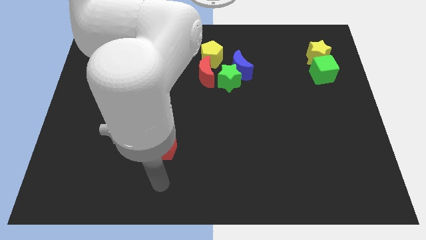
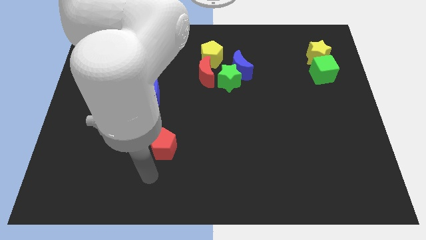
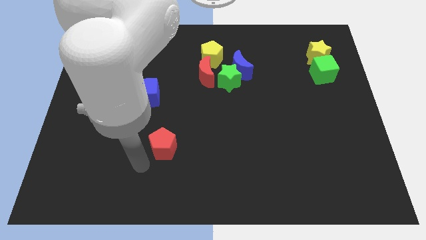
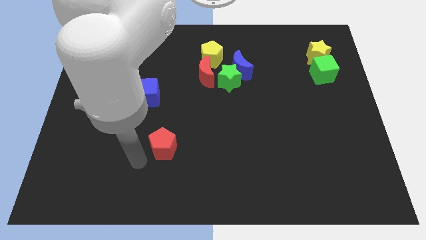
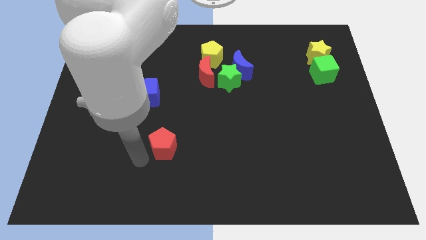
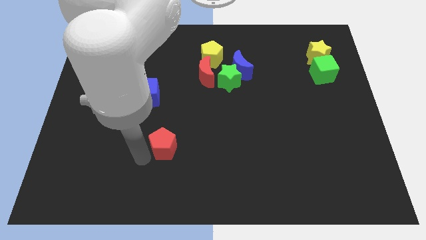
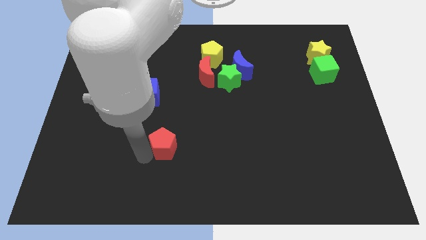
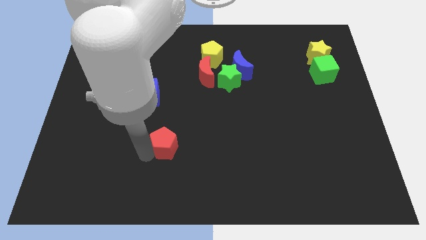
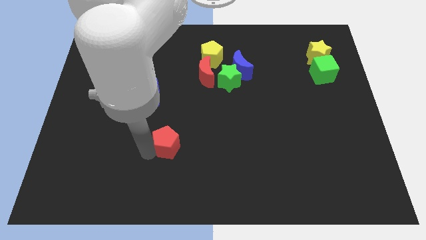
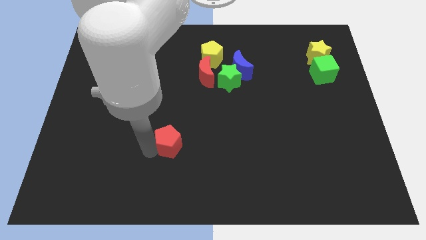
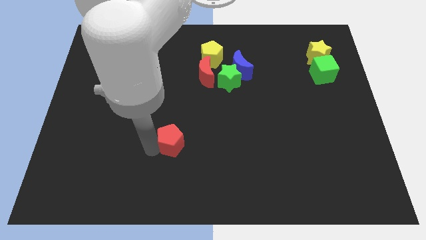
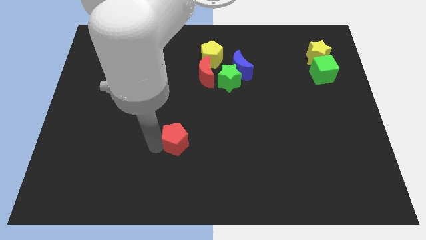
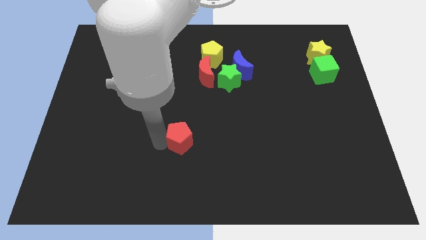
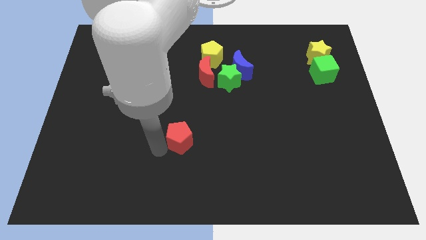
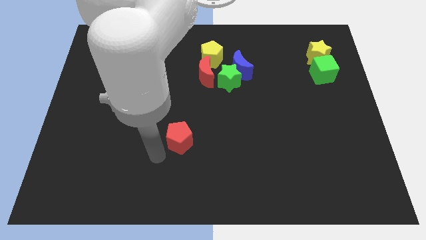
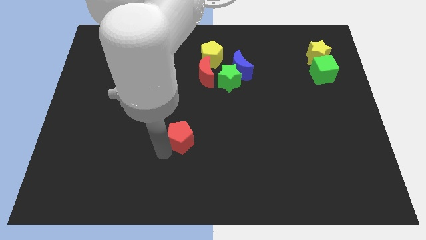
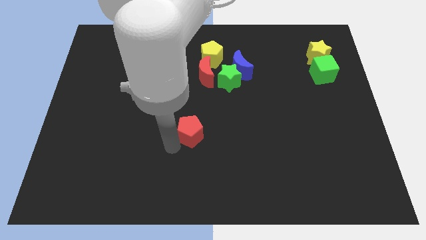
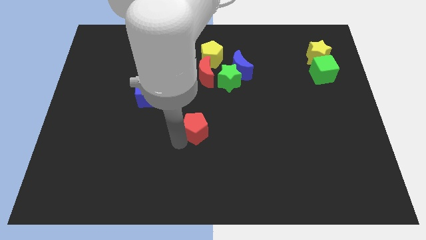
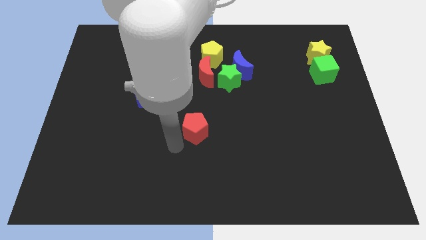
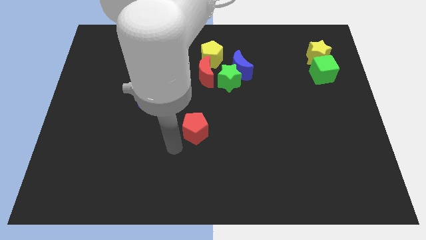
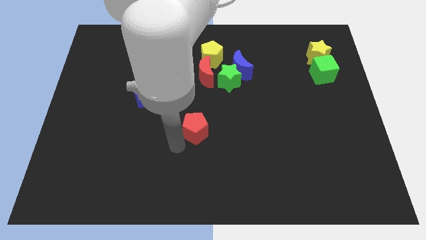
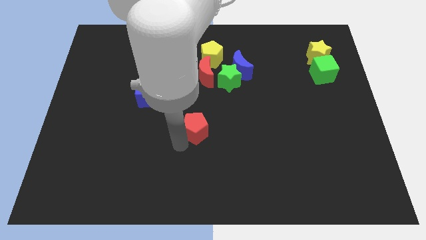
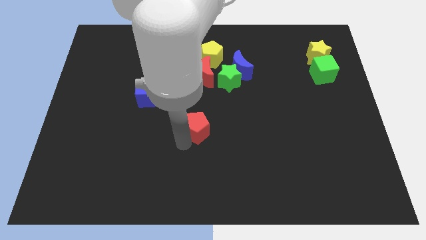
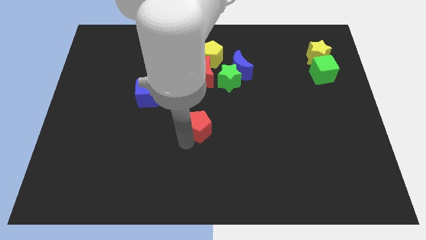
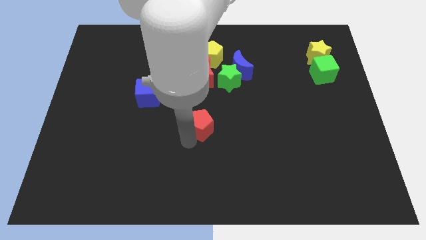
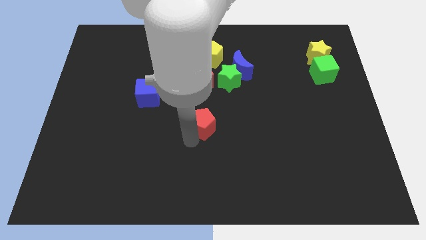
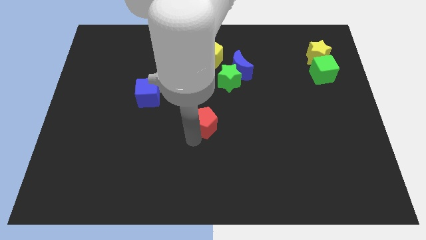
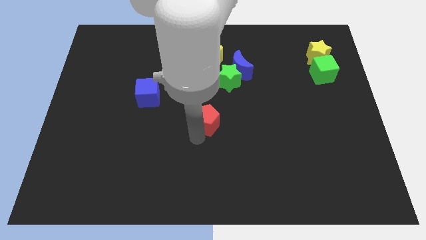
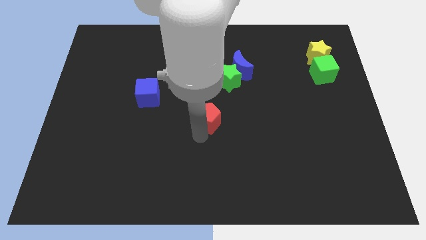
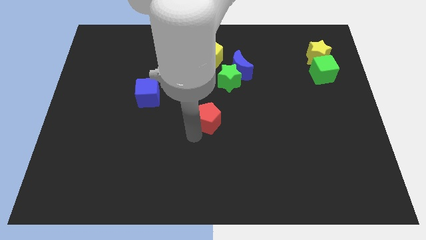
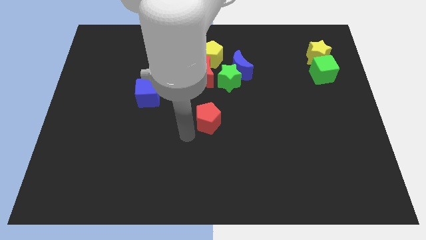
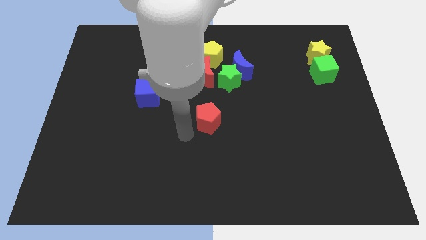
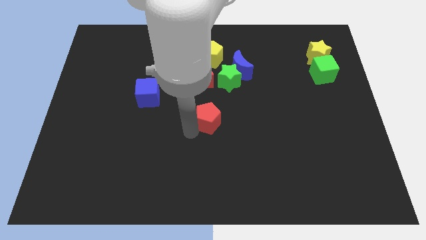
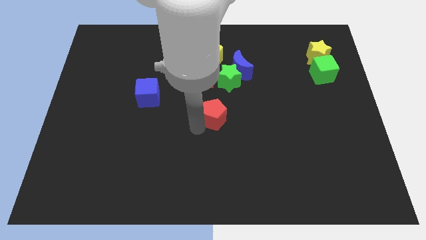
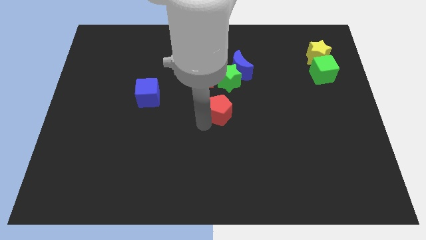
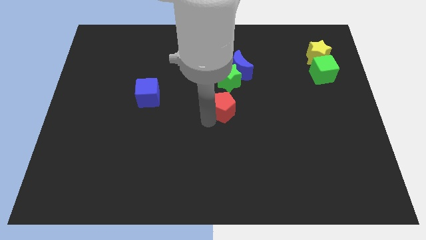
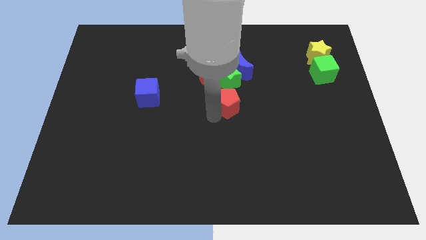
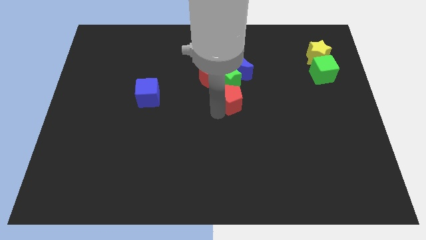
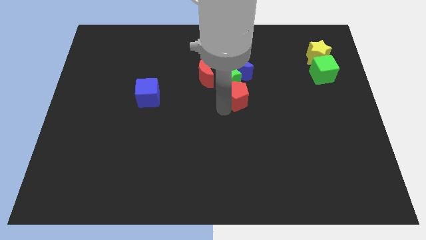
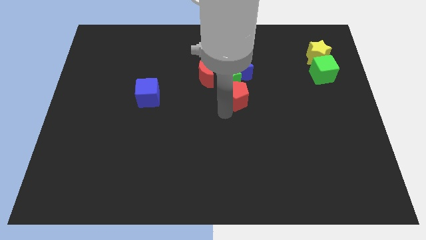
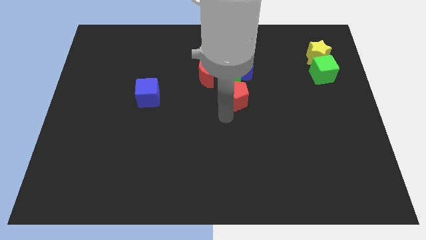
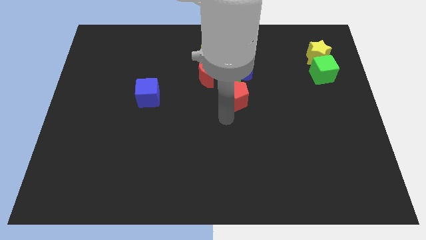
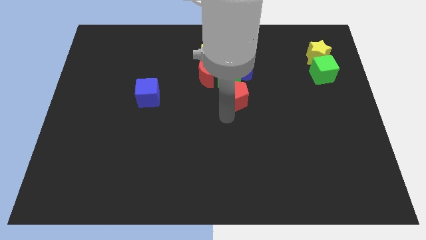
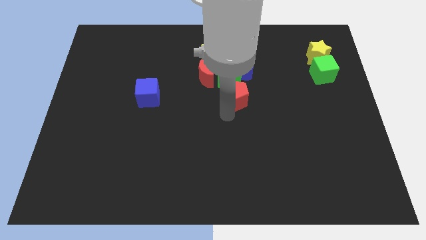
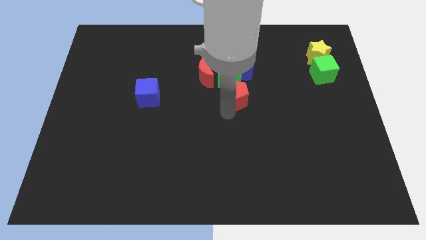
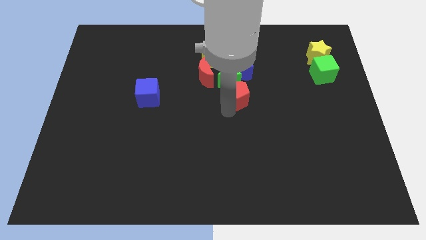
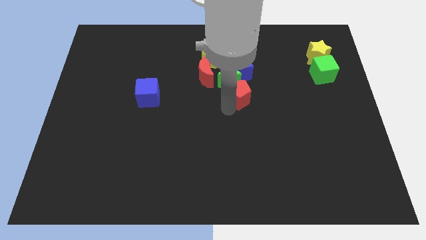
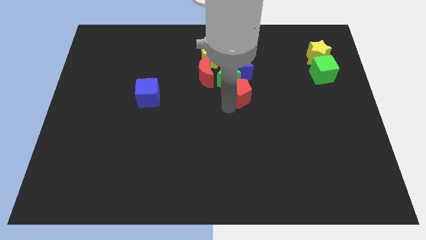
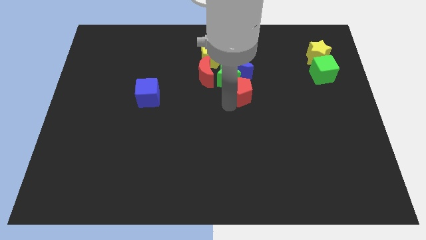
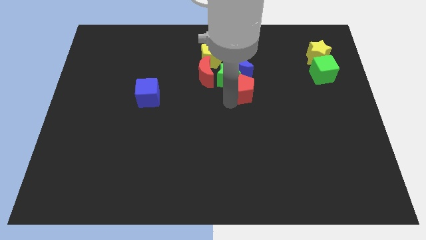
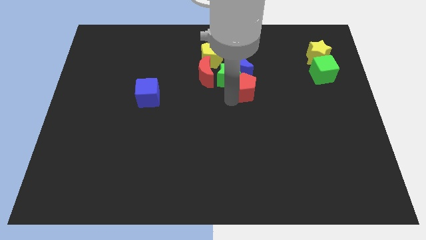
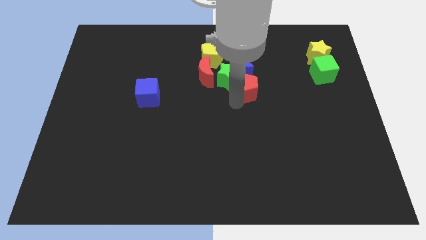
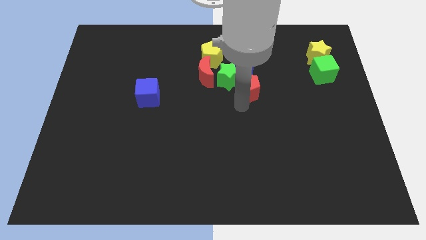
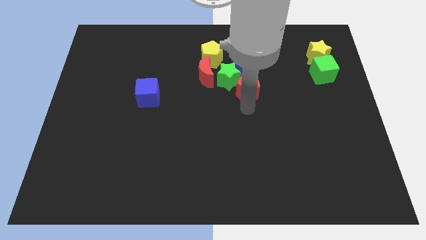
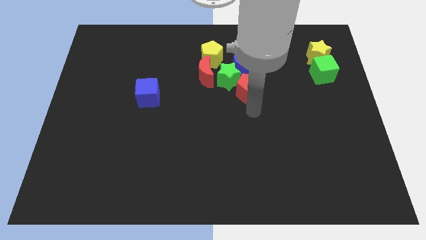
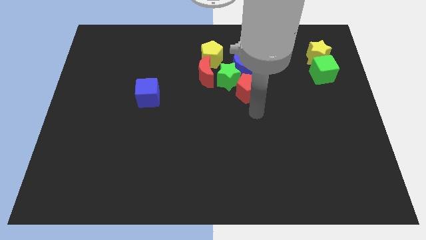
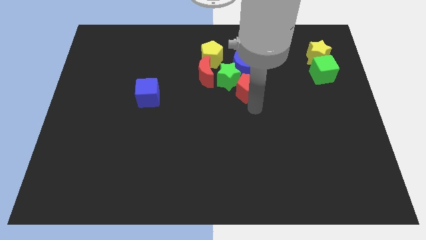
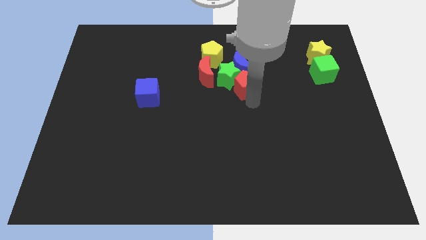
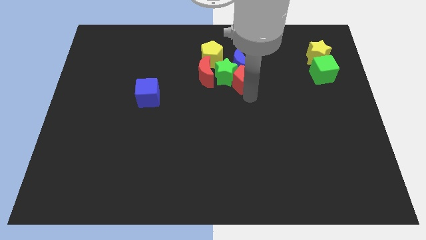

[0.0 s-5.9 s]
slide the red pentagon to the blue moon

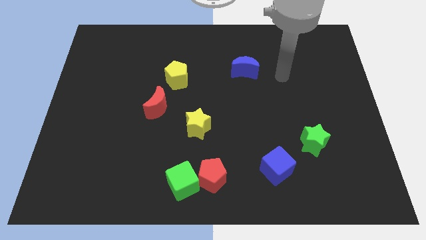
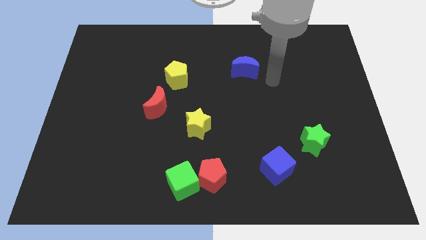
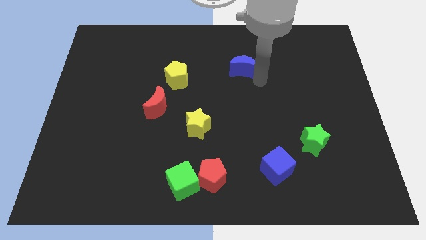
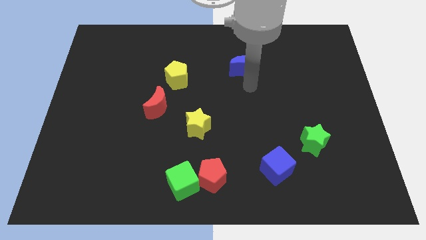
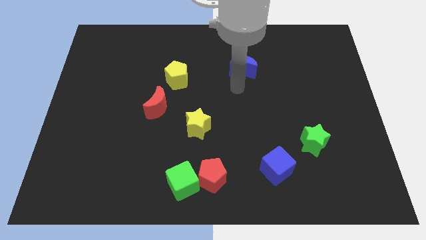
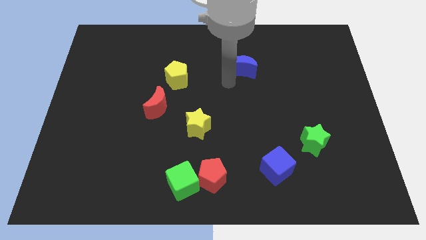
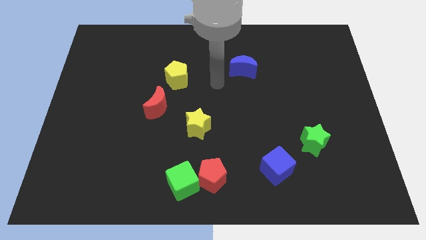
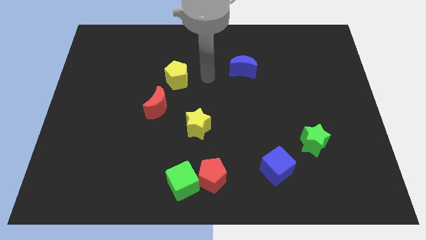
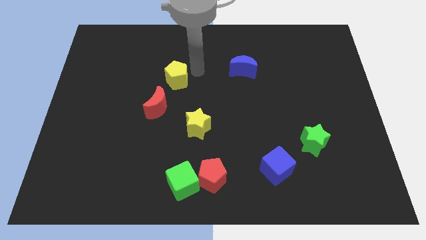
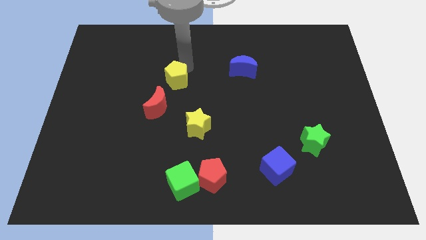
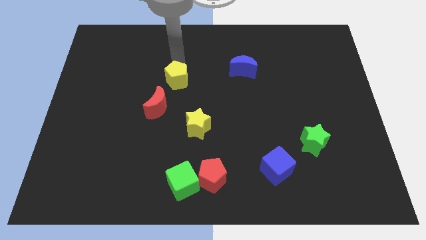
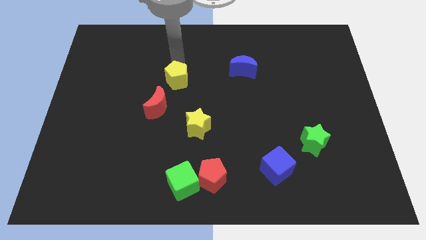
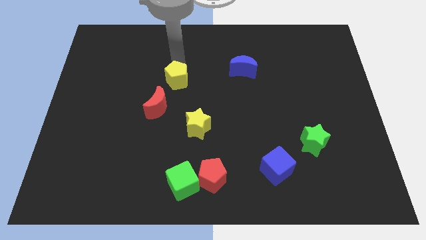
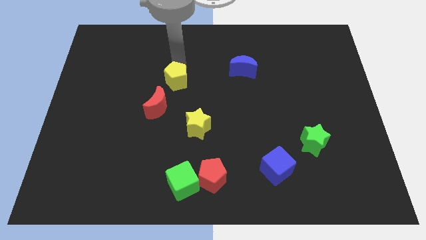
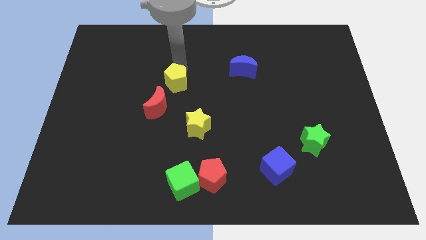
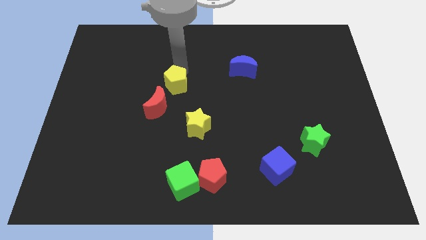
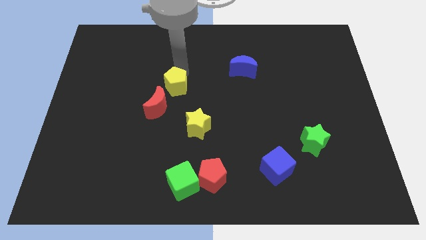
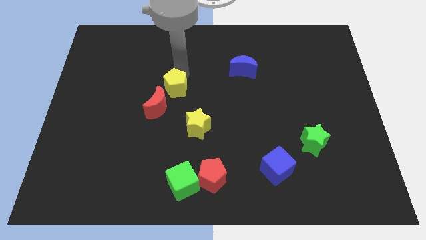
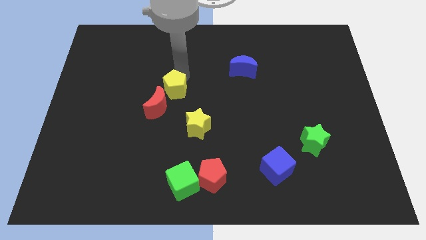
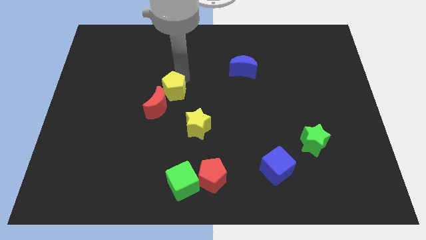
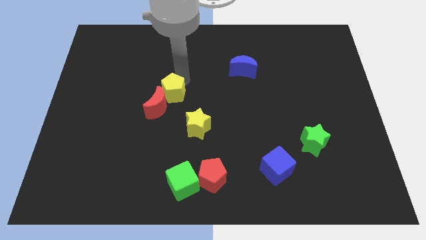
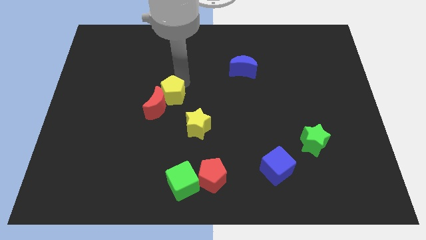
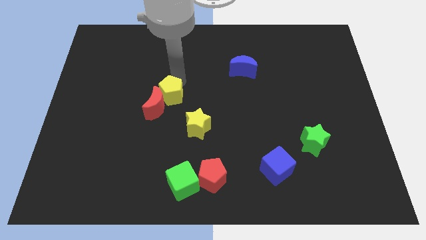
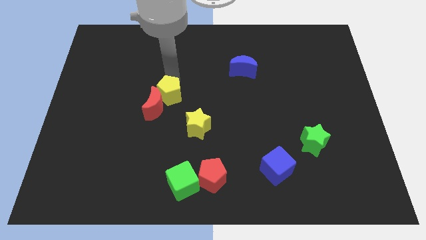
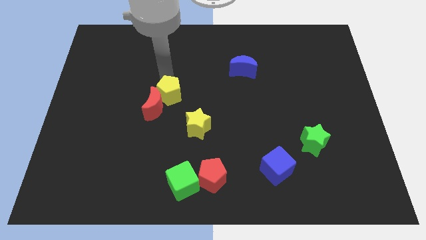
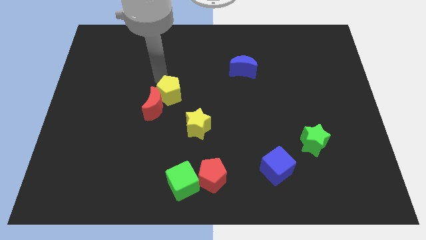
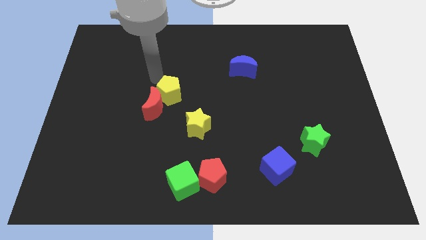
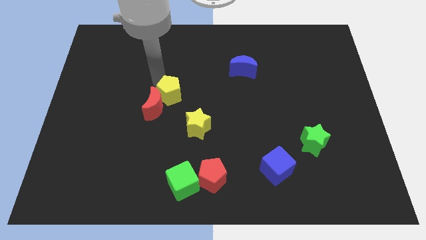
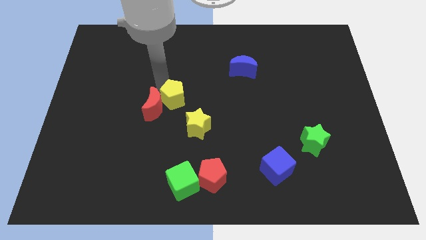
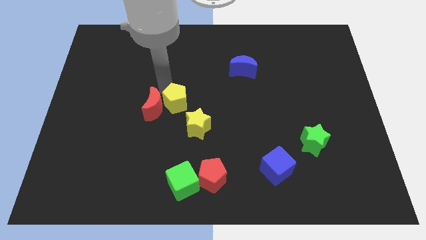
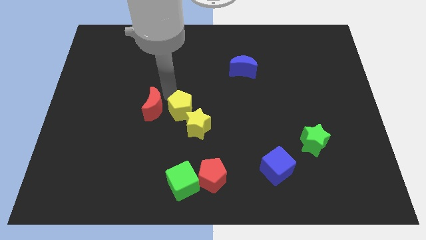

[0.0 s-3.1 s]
put the yellow pentagon towards the yellow star
